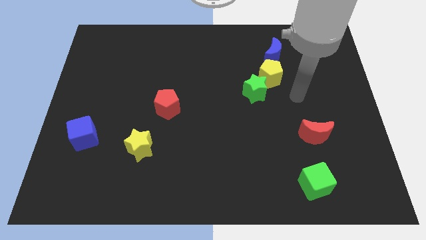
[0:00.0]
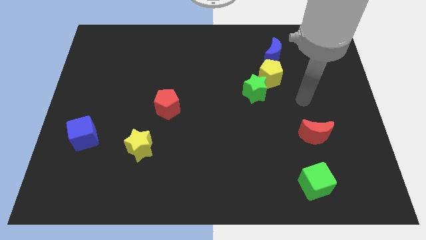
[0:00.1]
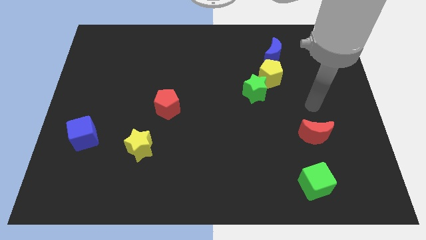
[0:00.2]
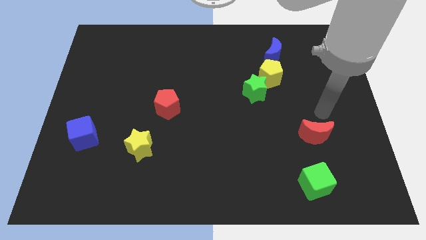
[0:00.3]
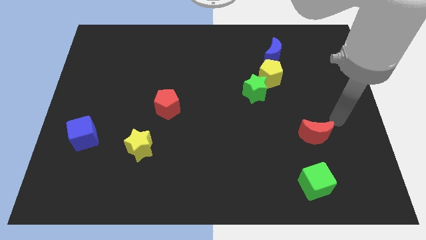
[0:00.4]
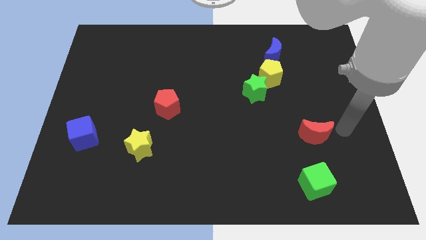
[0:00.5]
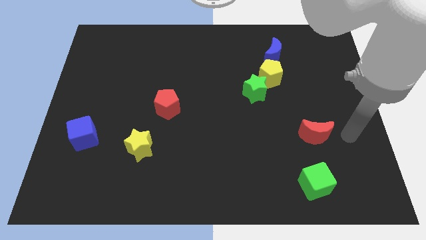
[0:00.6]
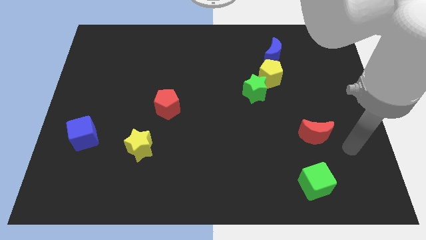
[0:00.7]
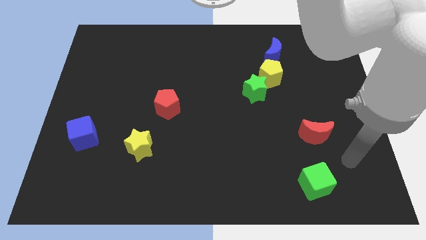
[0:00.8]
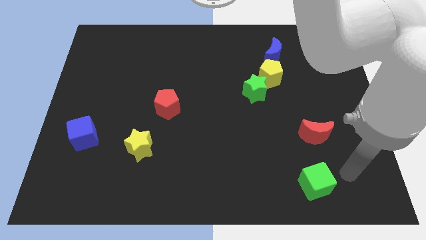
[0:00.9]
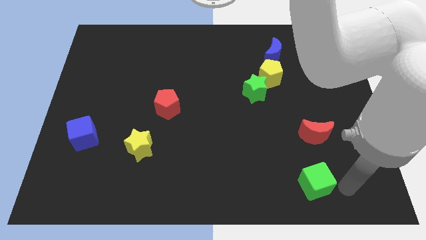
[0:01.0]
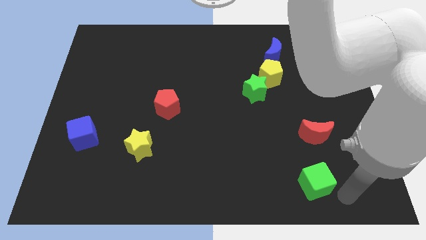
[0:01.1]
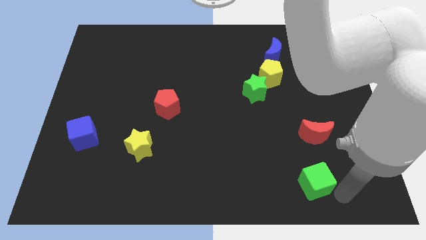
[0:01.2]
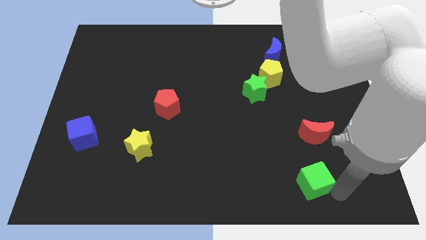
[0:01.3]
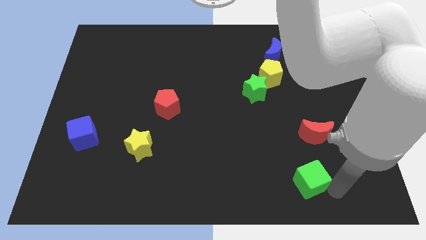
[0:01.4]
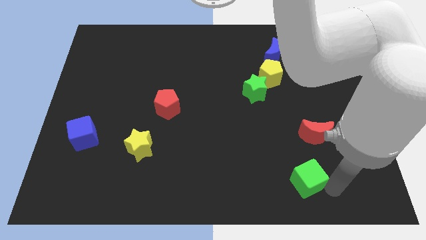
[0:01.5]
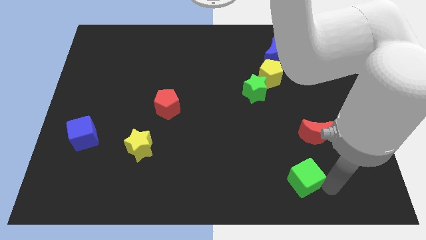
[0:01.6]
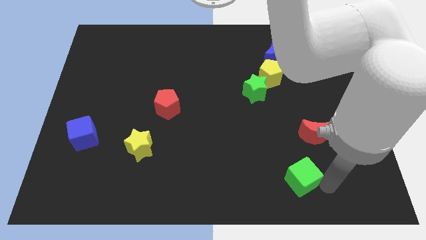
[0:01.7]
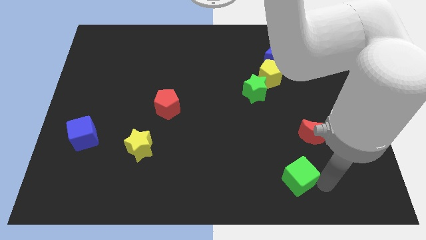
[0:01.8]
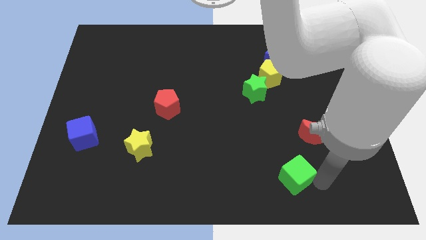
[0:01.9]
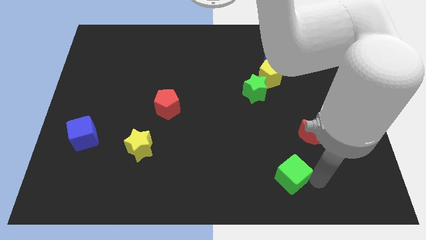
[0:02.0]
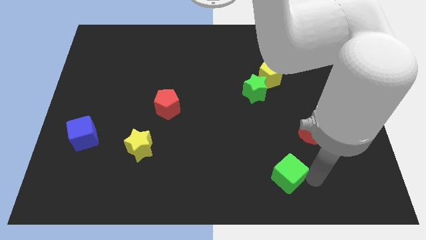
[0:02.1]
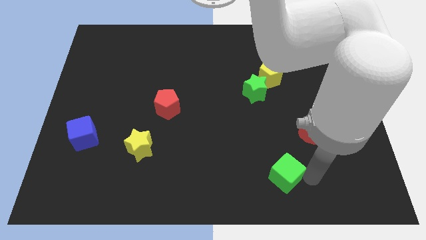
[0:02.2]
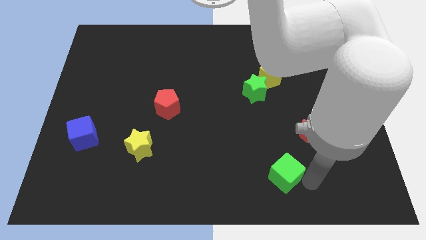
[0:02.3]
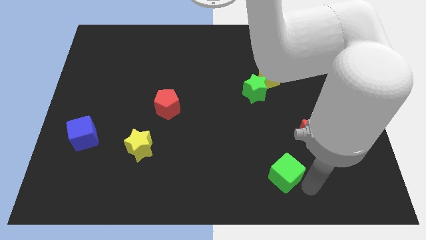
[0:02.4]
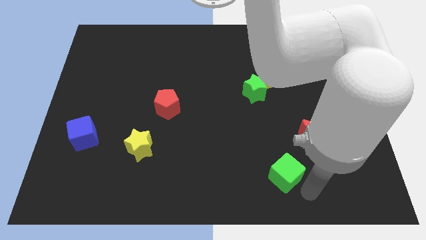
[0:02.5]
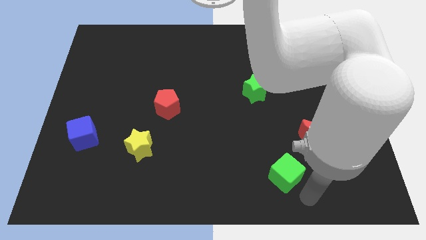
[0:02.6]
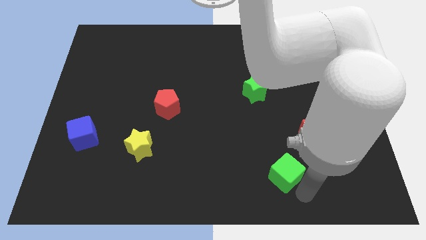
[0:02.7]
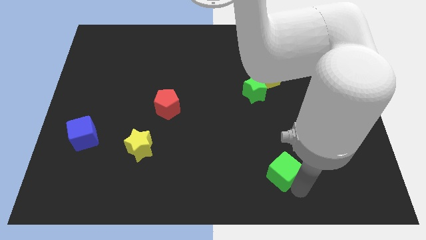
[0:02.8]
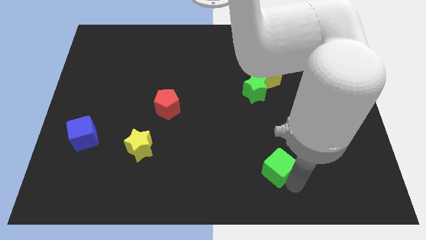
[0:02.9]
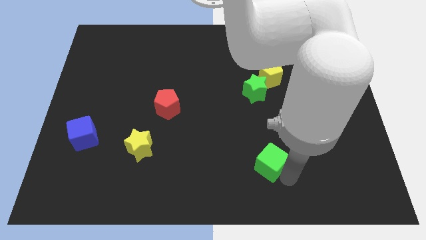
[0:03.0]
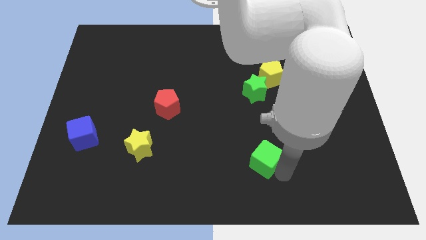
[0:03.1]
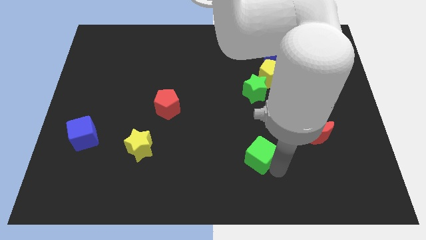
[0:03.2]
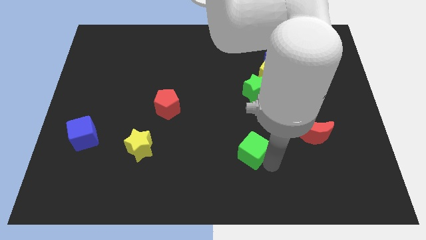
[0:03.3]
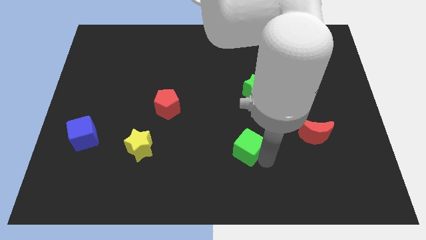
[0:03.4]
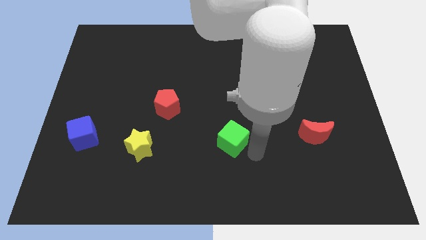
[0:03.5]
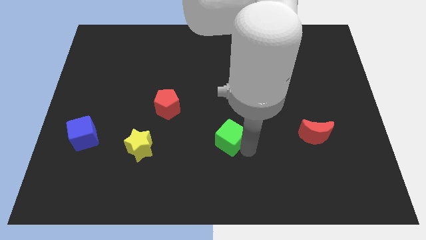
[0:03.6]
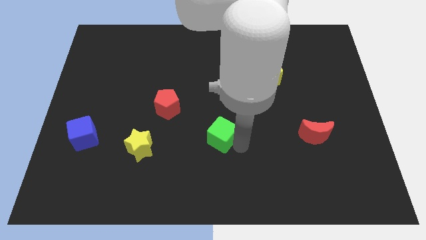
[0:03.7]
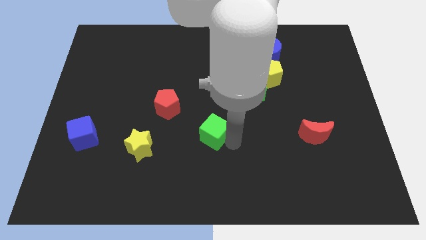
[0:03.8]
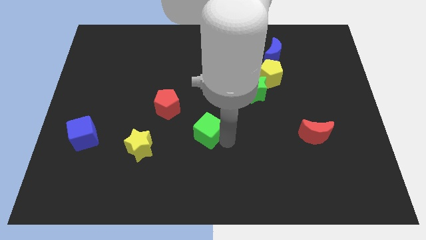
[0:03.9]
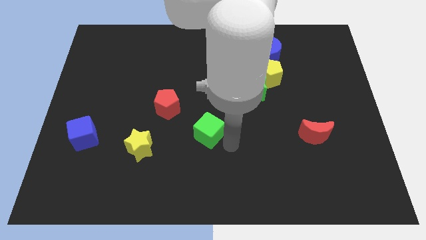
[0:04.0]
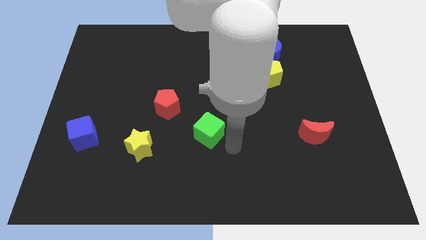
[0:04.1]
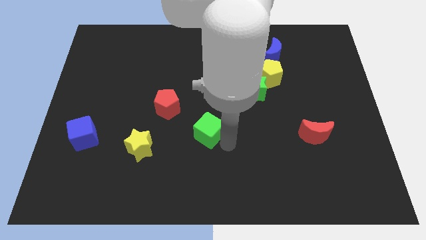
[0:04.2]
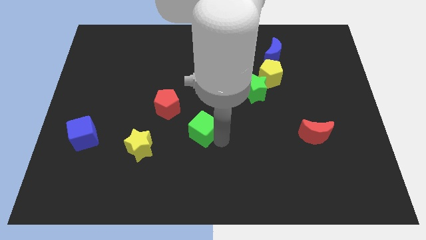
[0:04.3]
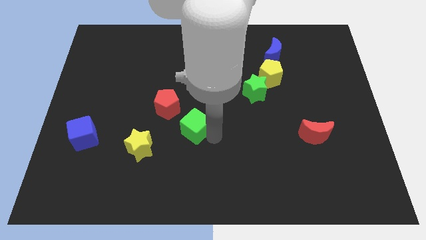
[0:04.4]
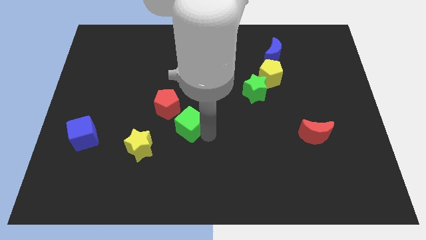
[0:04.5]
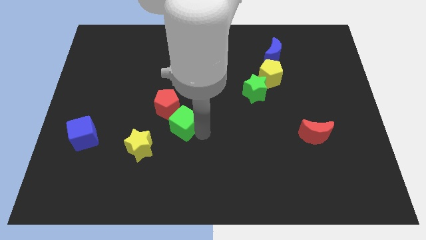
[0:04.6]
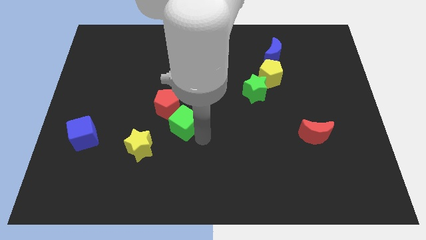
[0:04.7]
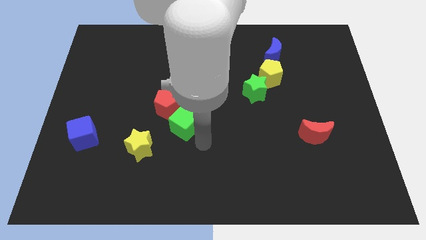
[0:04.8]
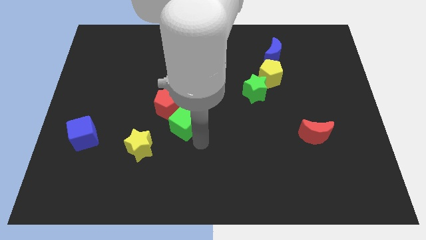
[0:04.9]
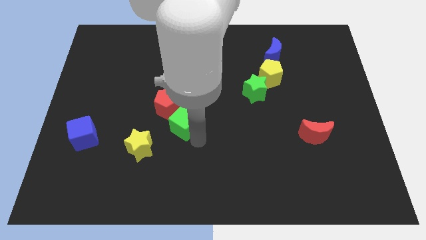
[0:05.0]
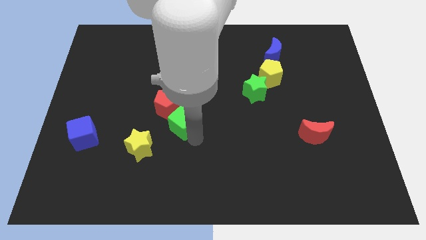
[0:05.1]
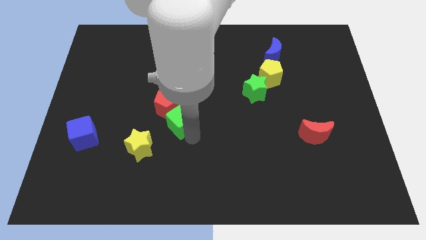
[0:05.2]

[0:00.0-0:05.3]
push the green cube towards the red pentagon

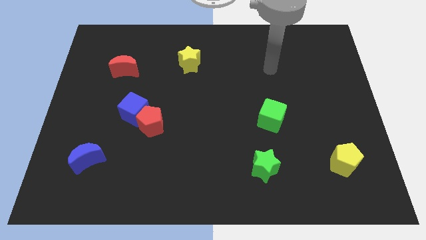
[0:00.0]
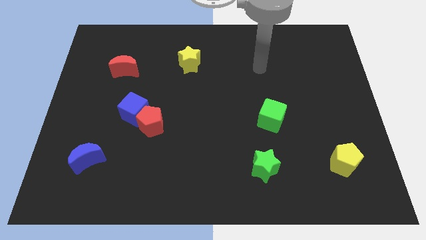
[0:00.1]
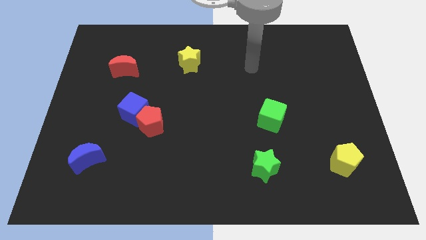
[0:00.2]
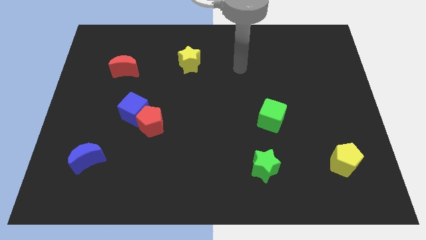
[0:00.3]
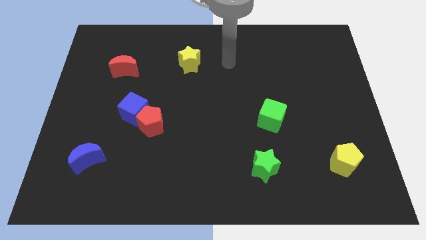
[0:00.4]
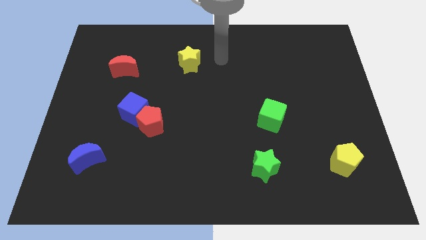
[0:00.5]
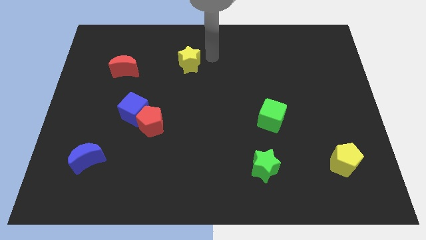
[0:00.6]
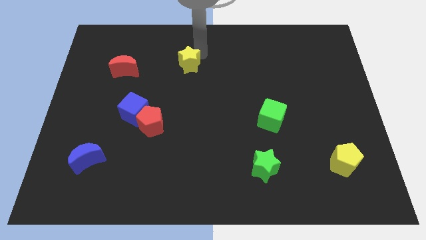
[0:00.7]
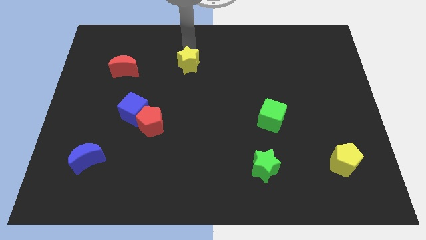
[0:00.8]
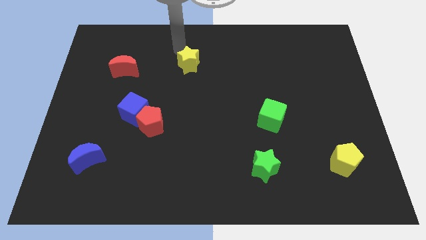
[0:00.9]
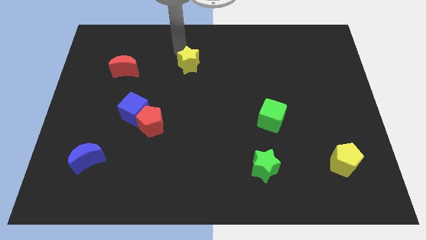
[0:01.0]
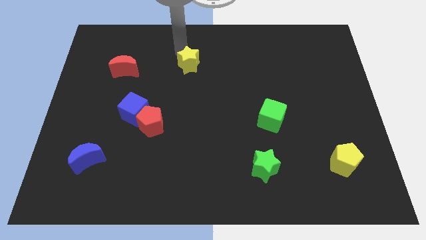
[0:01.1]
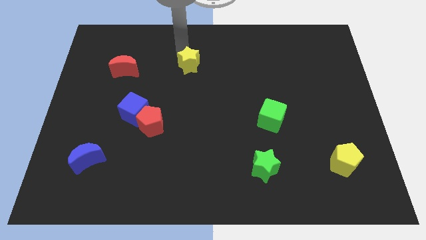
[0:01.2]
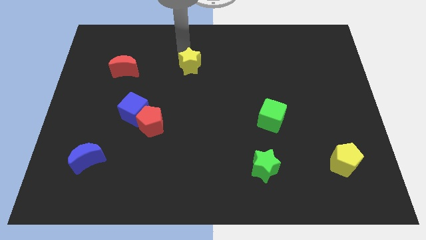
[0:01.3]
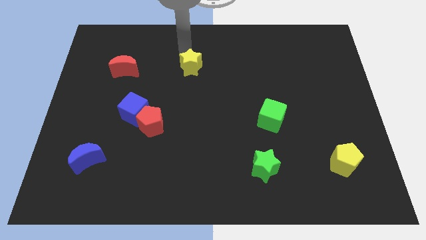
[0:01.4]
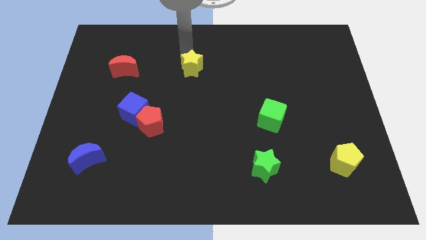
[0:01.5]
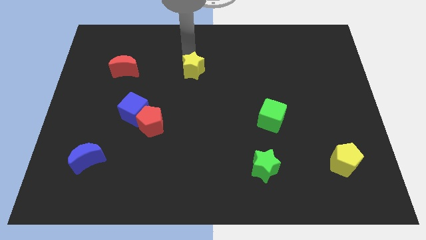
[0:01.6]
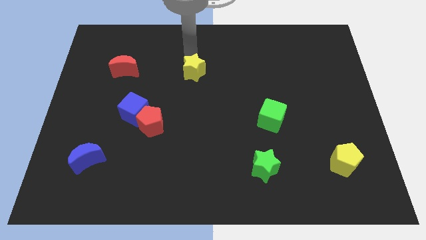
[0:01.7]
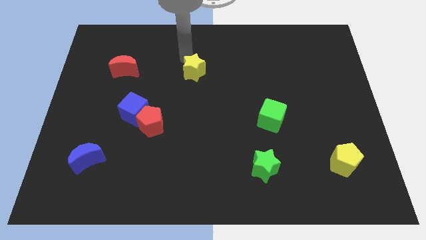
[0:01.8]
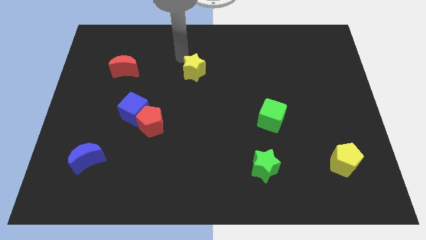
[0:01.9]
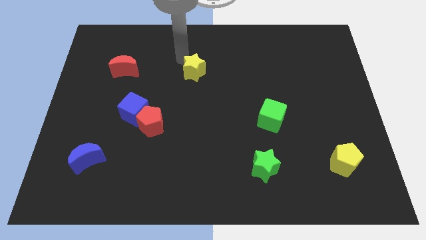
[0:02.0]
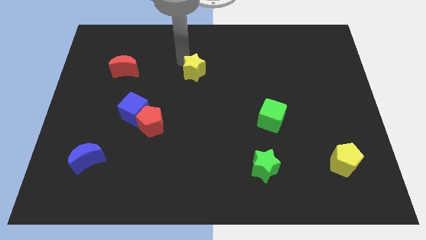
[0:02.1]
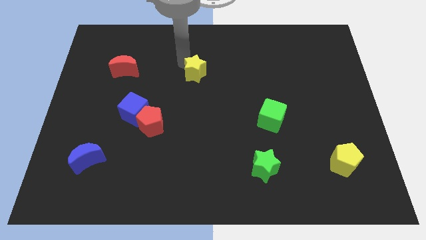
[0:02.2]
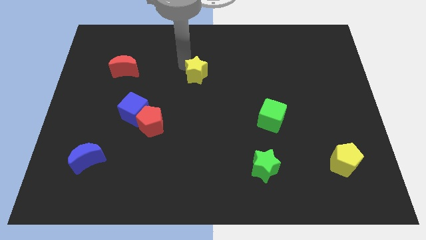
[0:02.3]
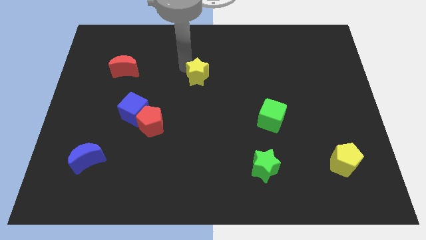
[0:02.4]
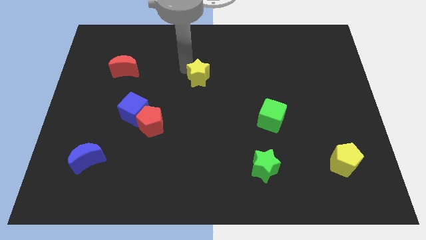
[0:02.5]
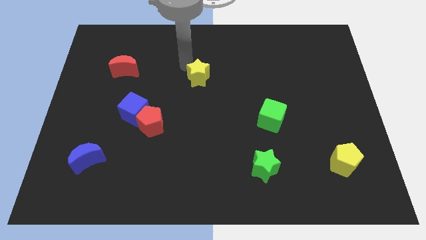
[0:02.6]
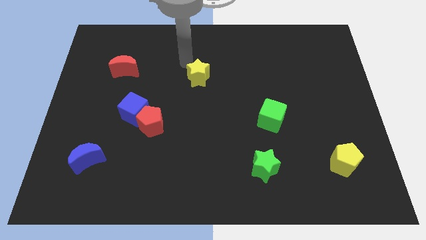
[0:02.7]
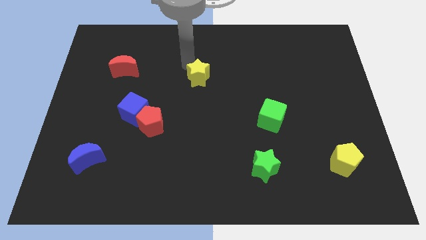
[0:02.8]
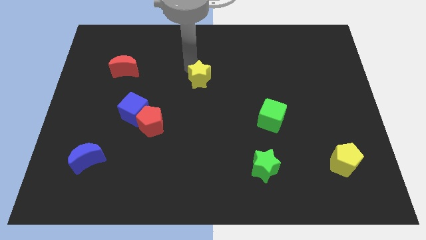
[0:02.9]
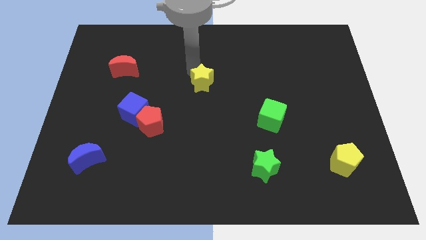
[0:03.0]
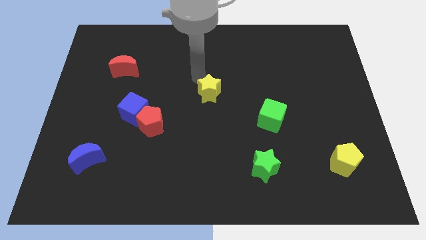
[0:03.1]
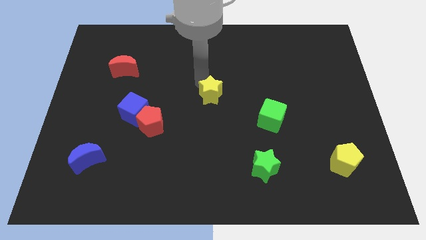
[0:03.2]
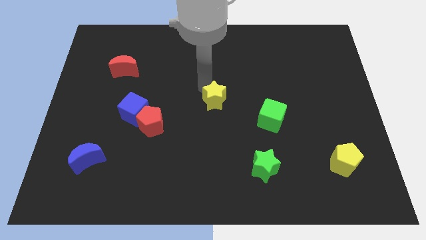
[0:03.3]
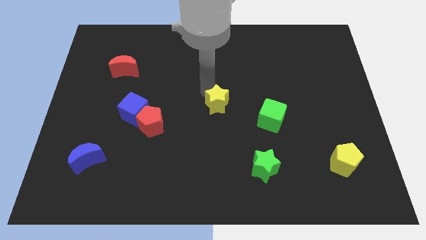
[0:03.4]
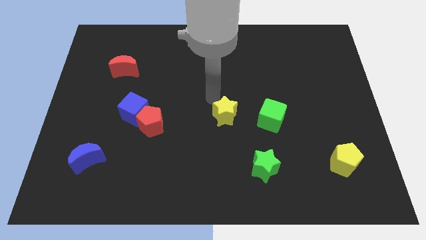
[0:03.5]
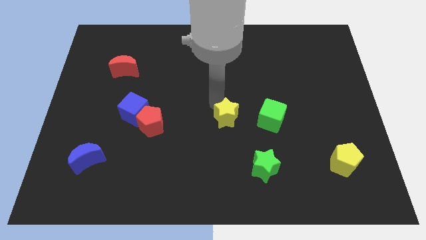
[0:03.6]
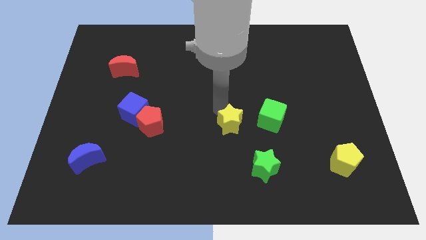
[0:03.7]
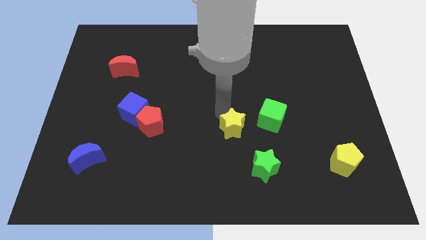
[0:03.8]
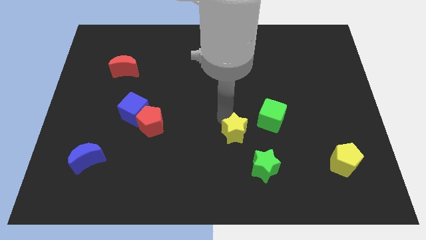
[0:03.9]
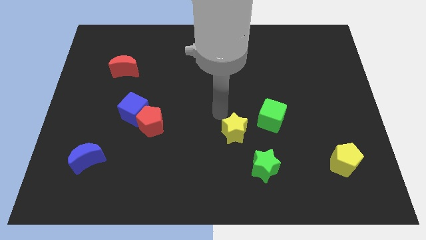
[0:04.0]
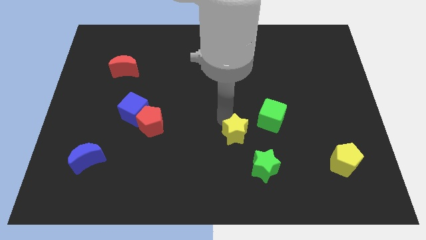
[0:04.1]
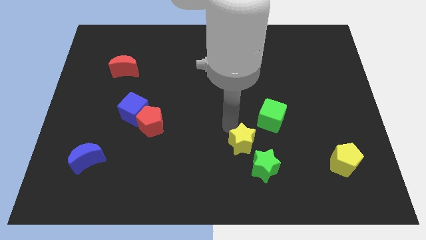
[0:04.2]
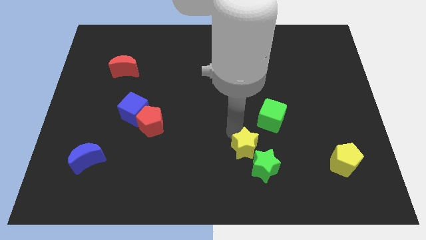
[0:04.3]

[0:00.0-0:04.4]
put the yellow star close to the green star
